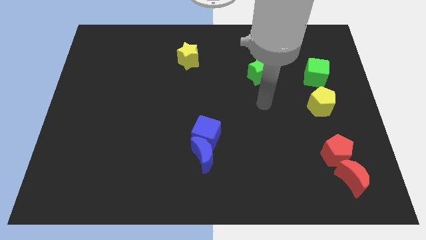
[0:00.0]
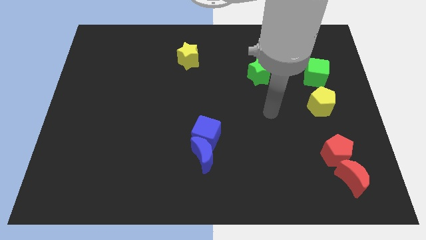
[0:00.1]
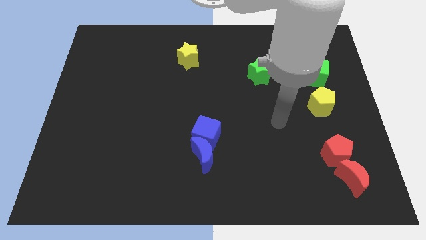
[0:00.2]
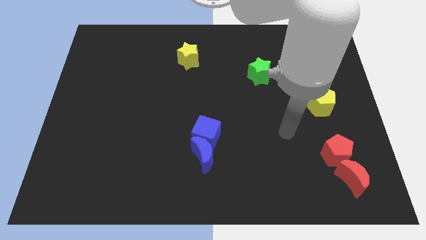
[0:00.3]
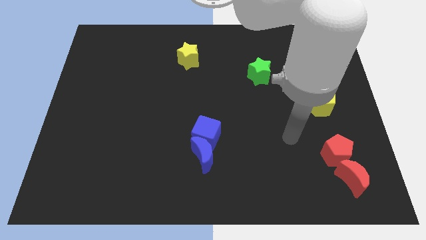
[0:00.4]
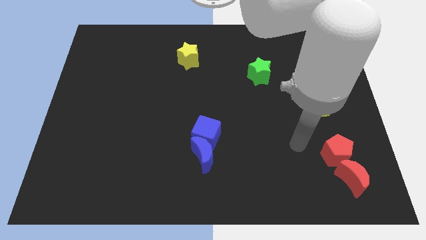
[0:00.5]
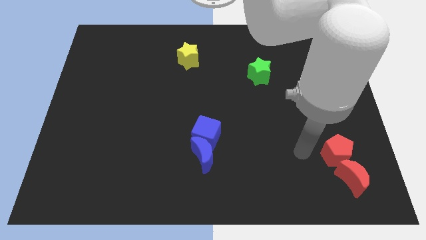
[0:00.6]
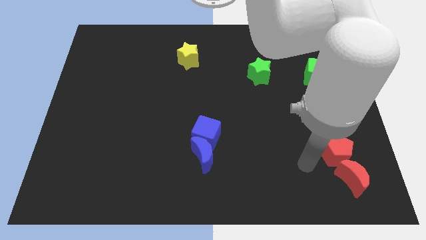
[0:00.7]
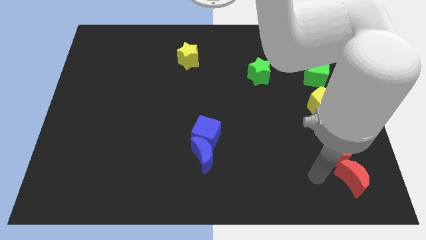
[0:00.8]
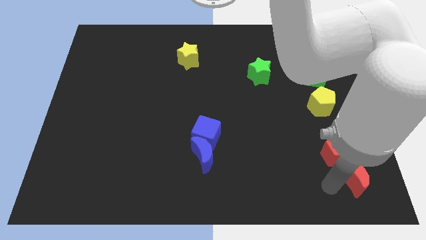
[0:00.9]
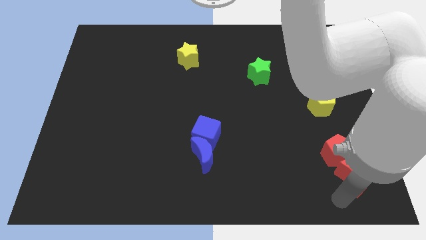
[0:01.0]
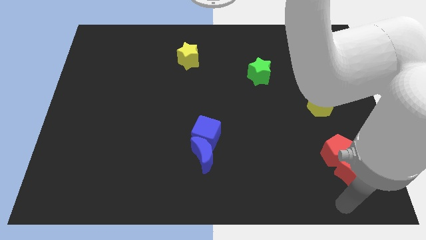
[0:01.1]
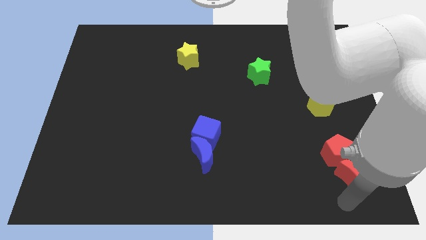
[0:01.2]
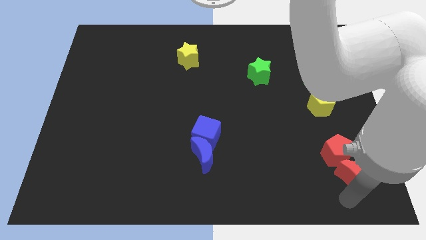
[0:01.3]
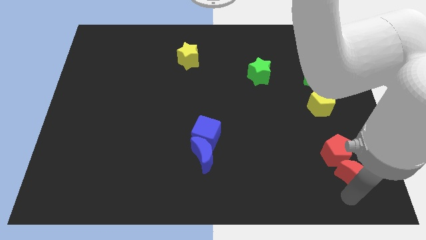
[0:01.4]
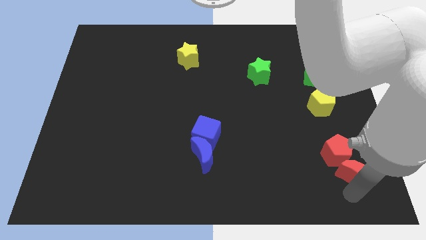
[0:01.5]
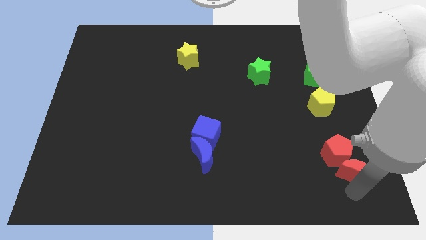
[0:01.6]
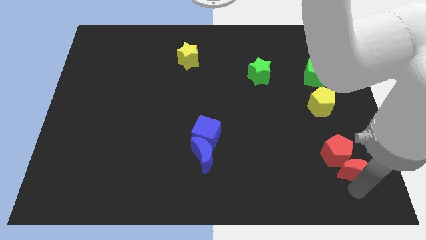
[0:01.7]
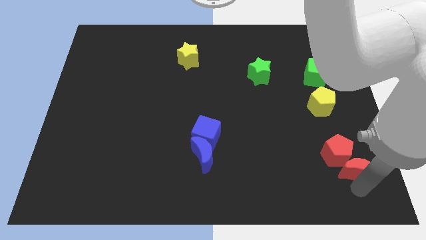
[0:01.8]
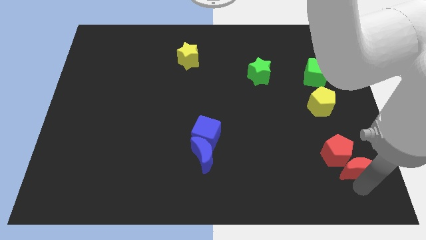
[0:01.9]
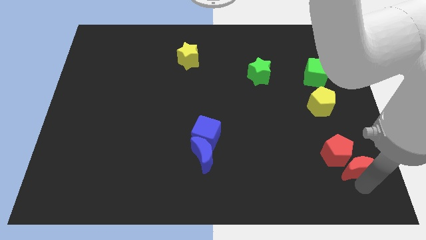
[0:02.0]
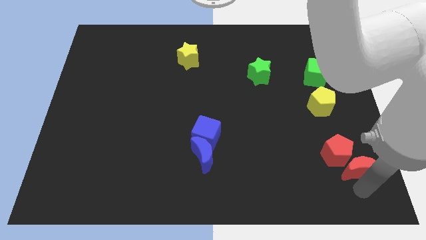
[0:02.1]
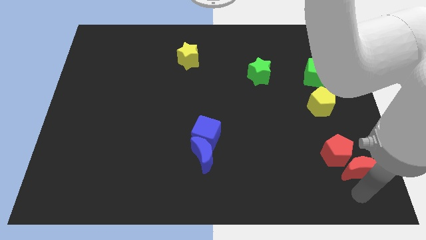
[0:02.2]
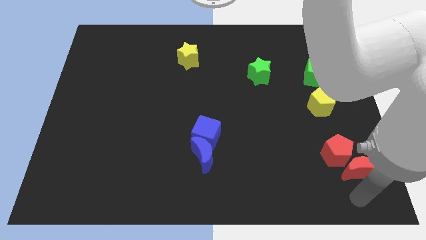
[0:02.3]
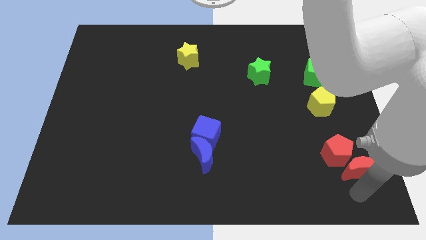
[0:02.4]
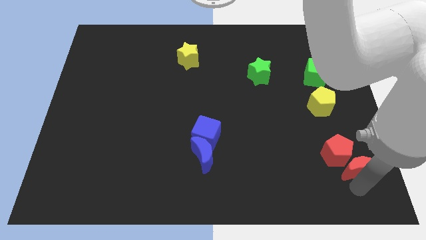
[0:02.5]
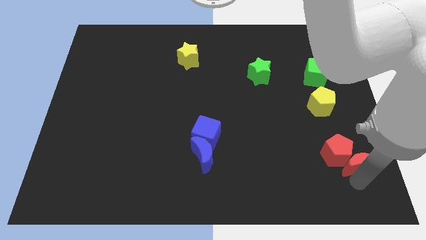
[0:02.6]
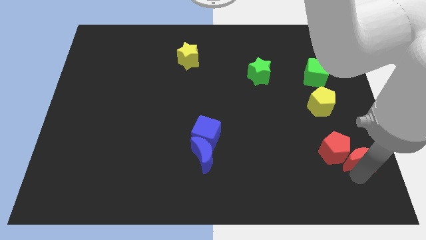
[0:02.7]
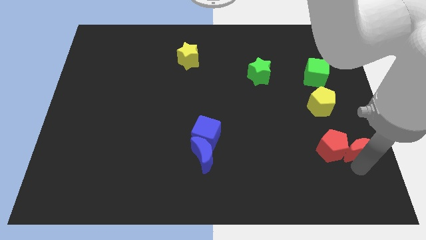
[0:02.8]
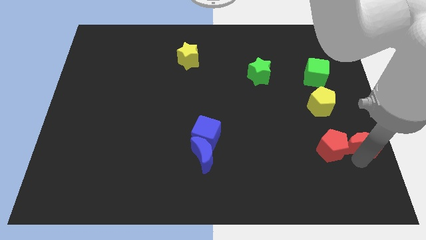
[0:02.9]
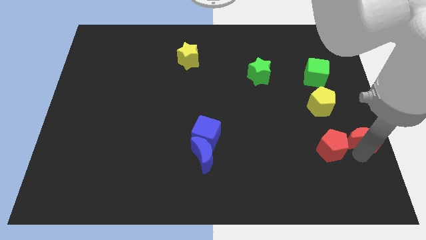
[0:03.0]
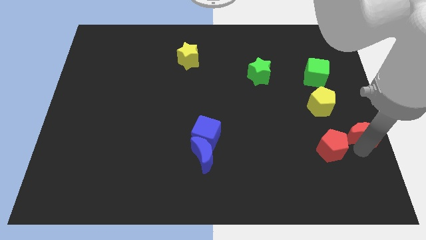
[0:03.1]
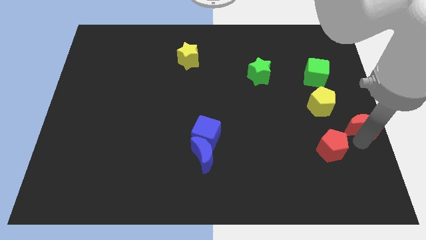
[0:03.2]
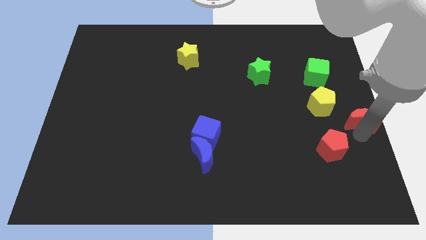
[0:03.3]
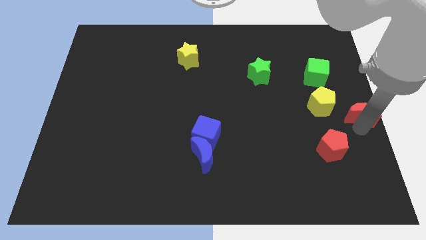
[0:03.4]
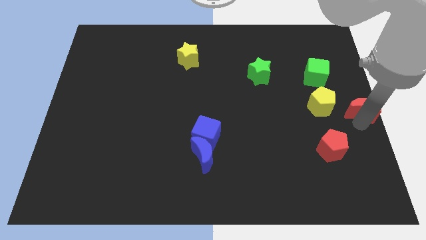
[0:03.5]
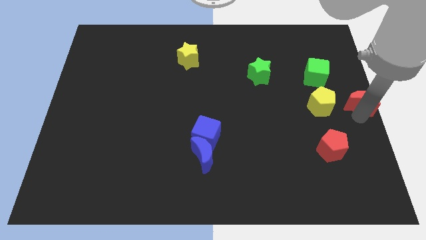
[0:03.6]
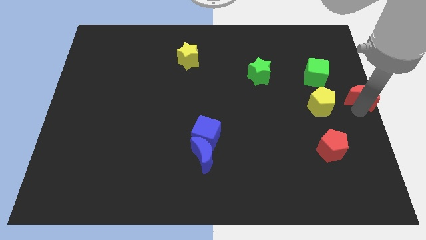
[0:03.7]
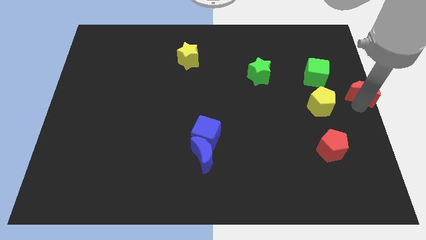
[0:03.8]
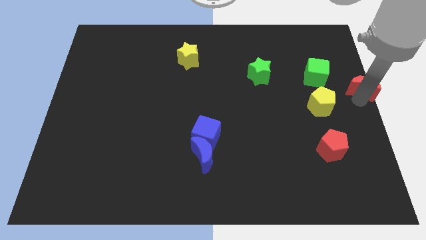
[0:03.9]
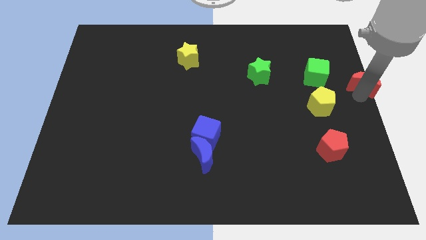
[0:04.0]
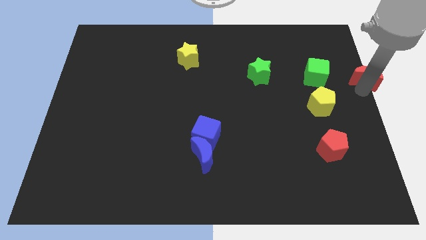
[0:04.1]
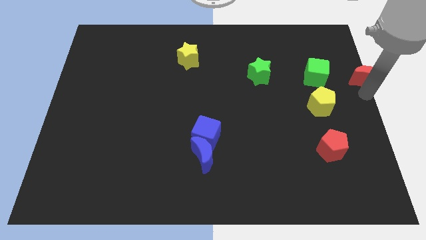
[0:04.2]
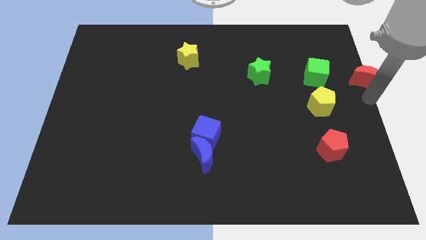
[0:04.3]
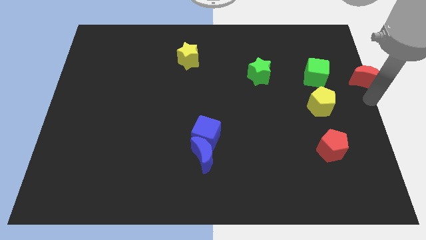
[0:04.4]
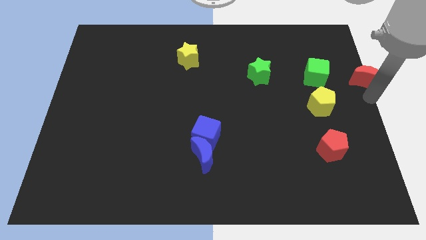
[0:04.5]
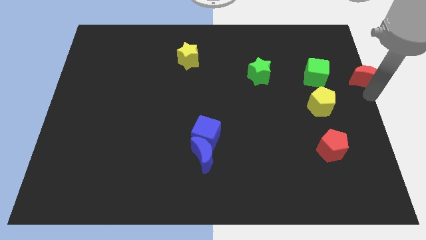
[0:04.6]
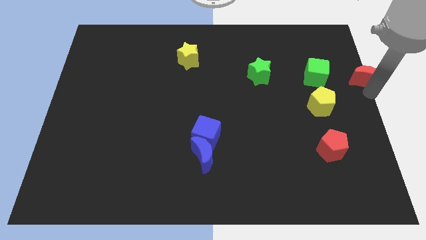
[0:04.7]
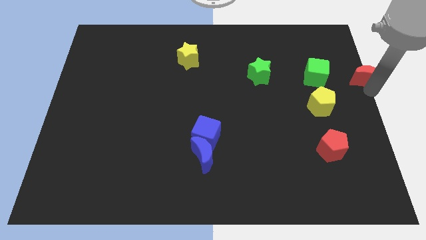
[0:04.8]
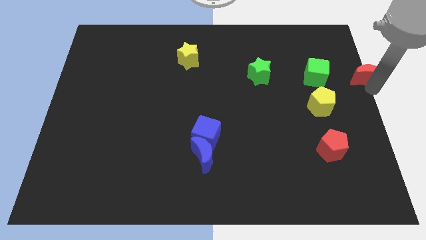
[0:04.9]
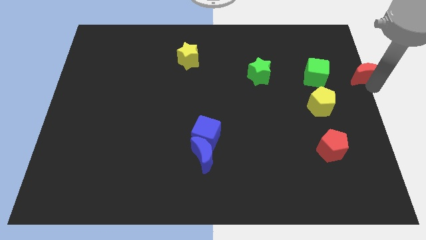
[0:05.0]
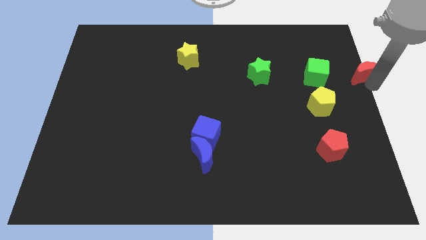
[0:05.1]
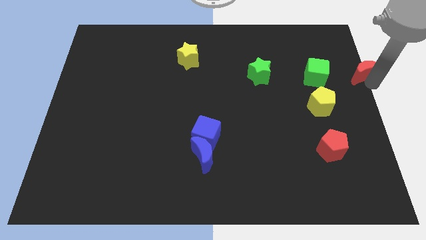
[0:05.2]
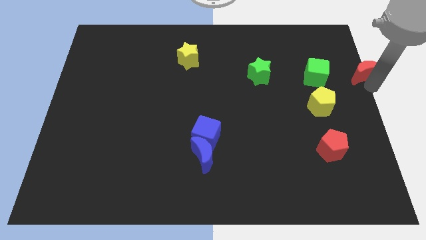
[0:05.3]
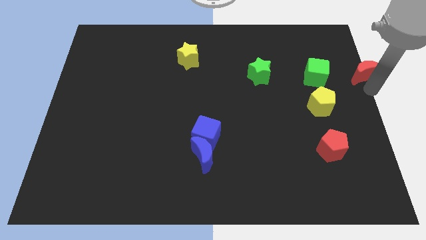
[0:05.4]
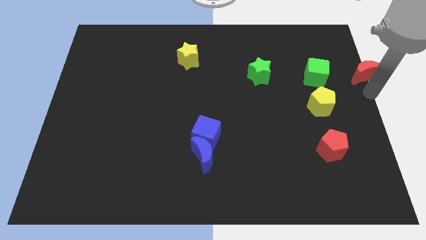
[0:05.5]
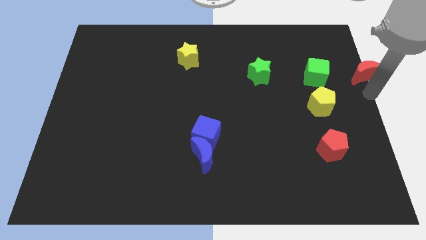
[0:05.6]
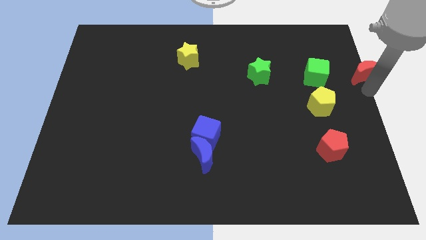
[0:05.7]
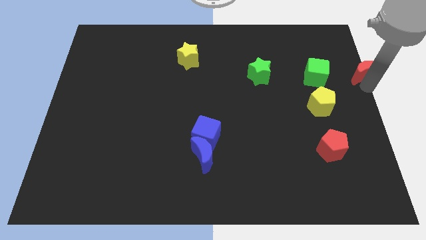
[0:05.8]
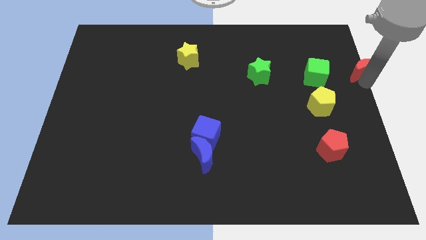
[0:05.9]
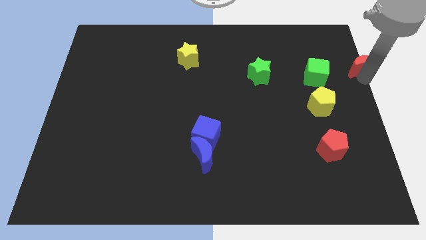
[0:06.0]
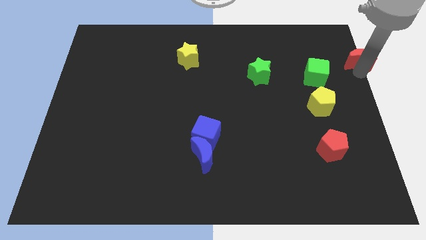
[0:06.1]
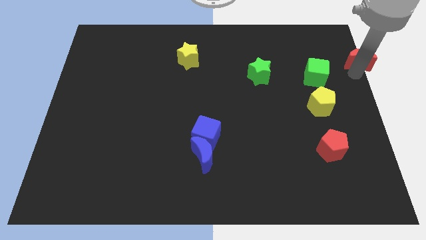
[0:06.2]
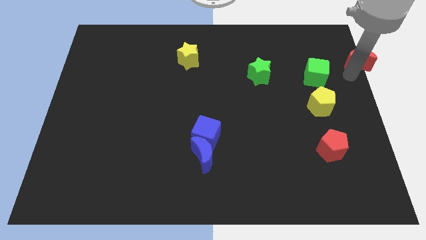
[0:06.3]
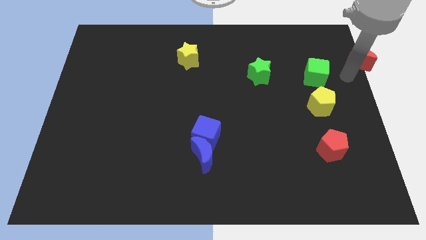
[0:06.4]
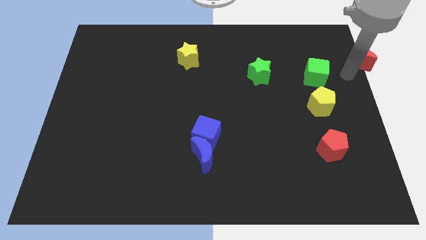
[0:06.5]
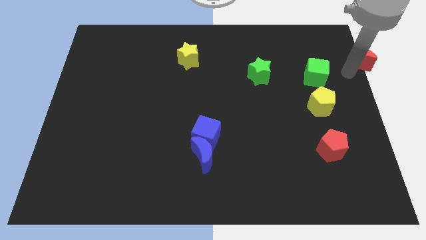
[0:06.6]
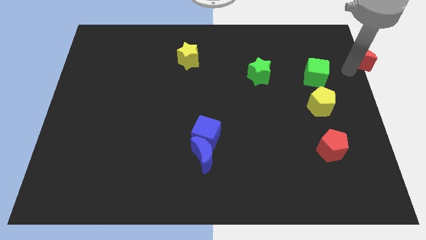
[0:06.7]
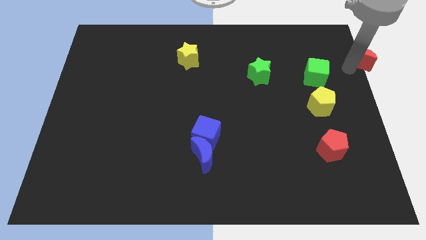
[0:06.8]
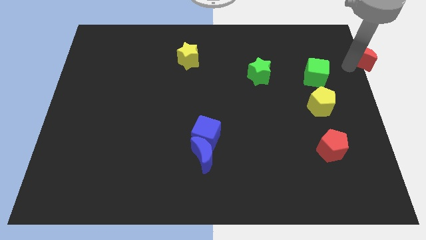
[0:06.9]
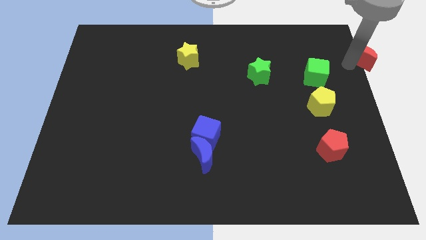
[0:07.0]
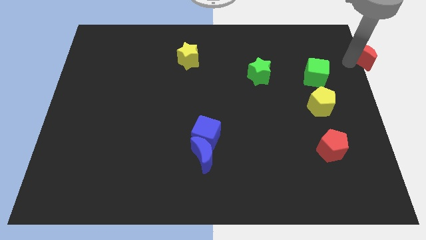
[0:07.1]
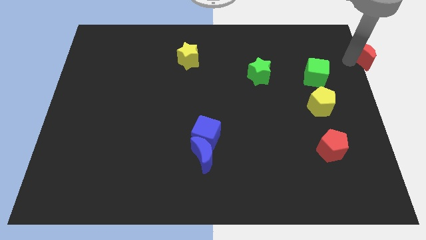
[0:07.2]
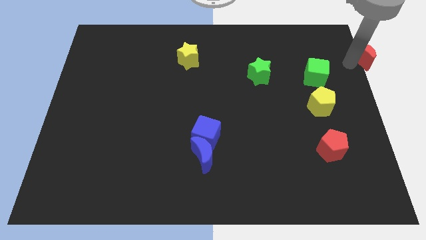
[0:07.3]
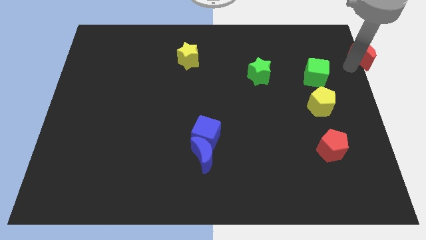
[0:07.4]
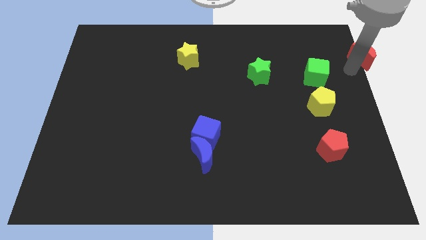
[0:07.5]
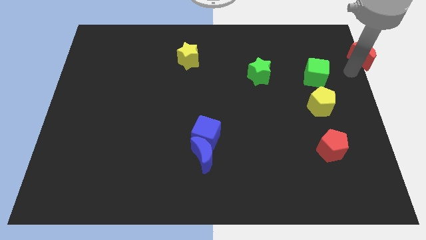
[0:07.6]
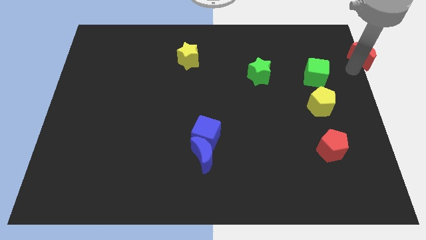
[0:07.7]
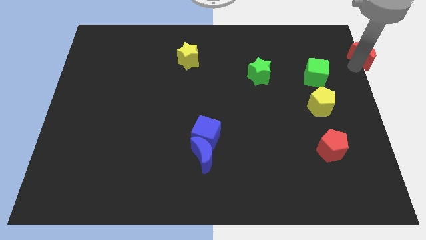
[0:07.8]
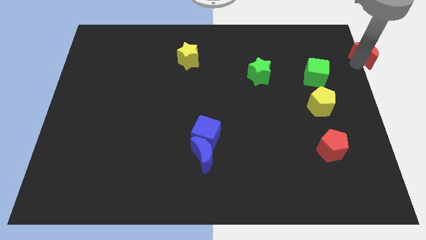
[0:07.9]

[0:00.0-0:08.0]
move the red moon to the top right of the board
